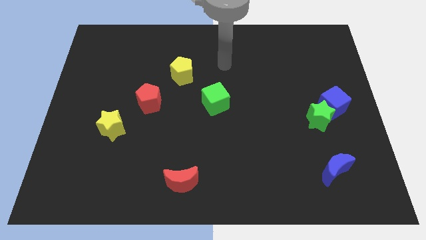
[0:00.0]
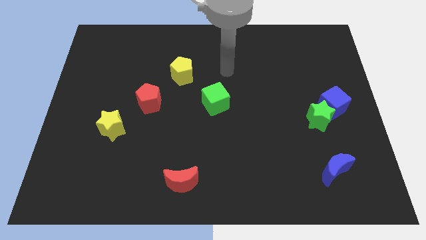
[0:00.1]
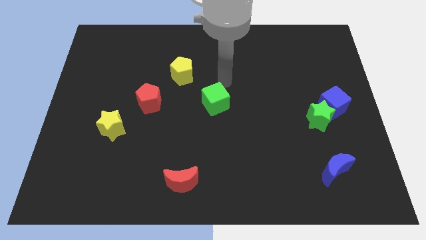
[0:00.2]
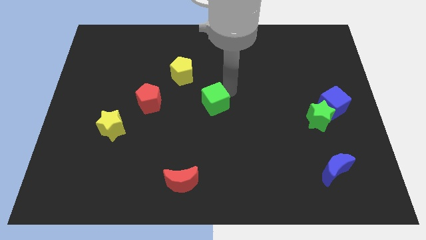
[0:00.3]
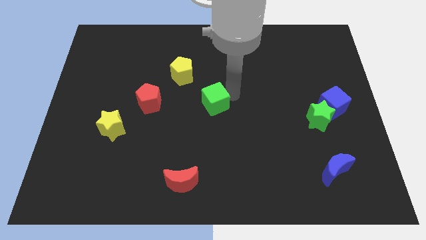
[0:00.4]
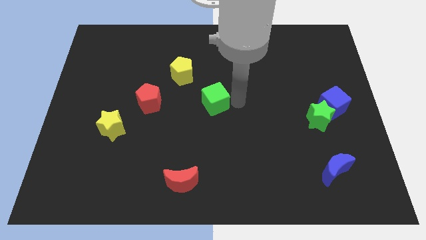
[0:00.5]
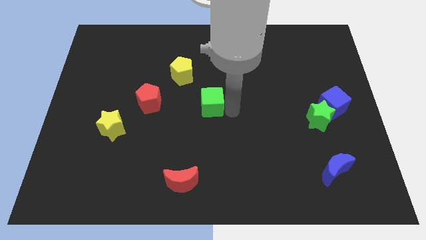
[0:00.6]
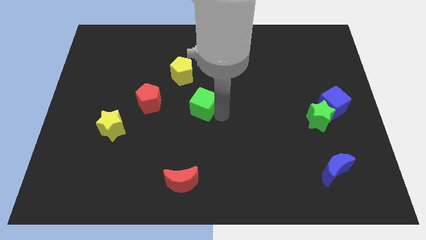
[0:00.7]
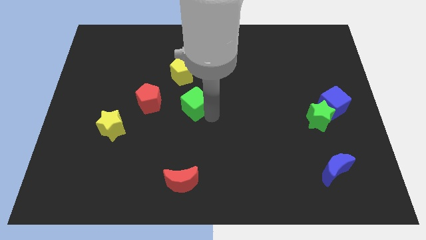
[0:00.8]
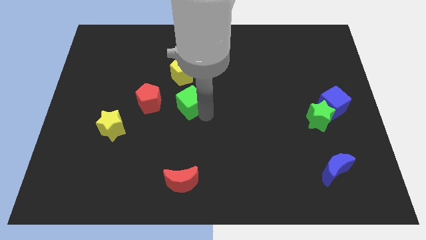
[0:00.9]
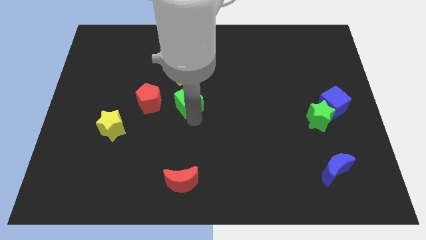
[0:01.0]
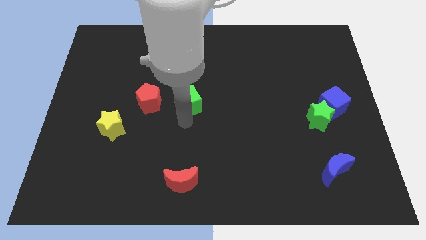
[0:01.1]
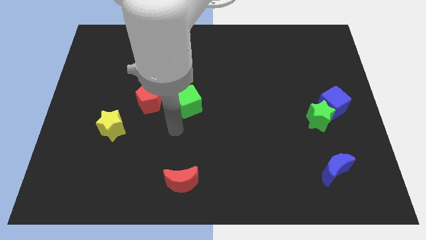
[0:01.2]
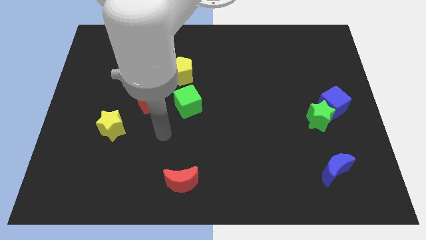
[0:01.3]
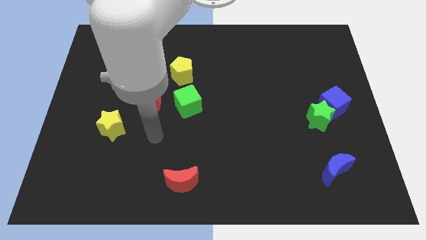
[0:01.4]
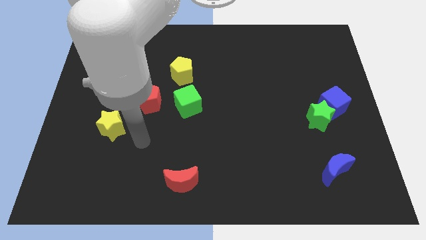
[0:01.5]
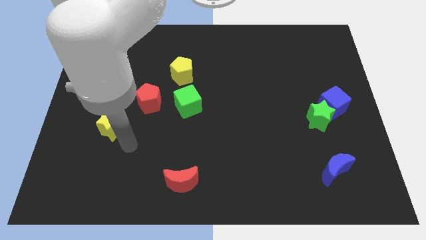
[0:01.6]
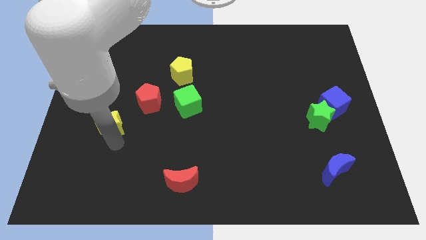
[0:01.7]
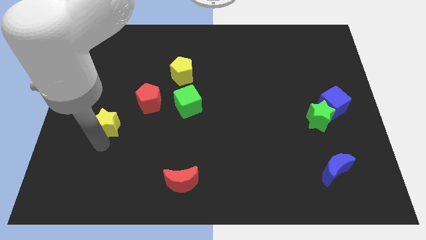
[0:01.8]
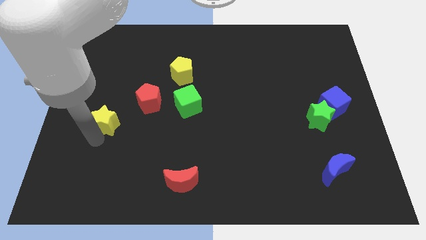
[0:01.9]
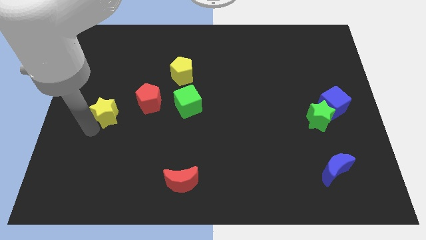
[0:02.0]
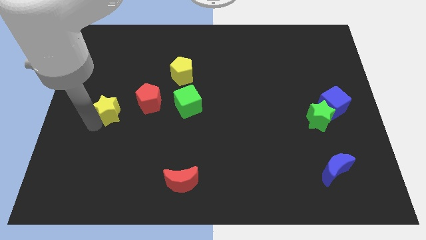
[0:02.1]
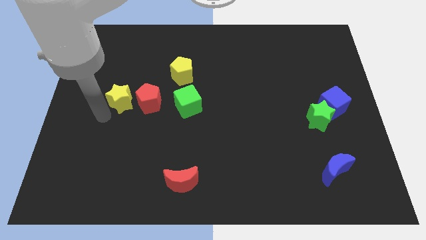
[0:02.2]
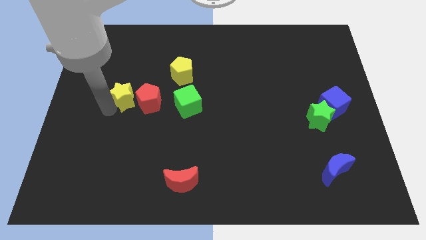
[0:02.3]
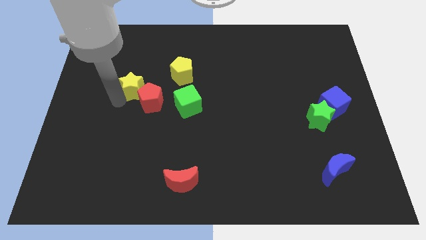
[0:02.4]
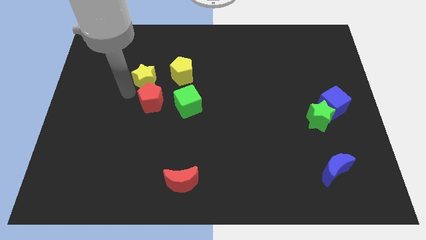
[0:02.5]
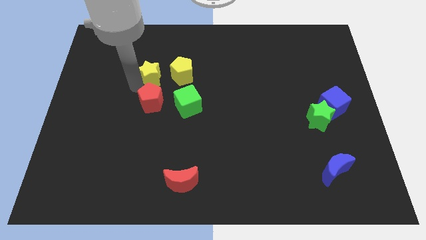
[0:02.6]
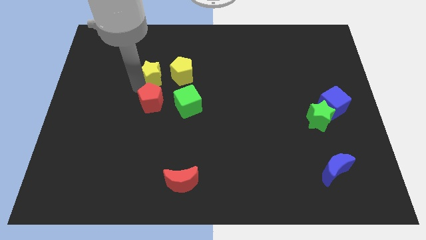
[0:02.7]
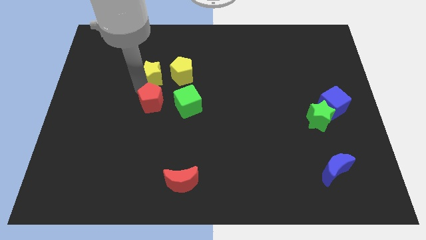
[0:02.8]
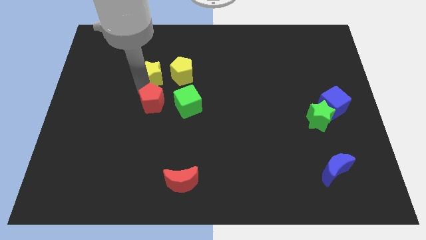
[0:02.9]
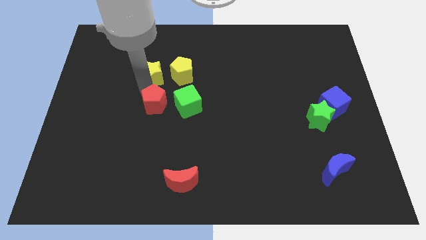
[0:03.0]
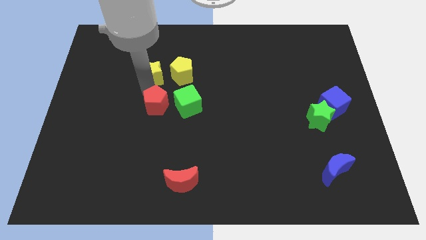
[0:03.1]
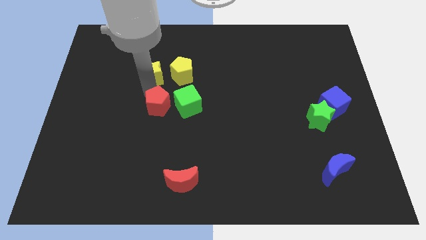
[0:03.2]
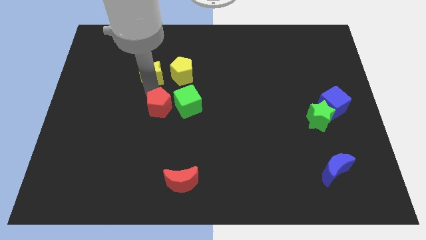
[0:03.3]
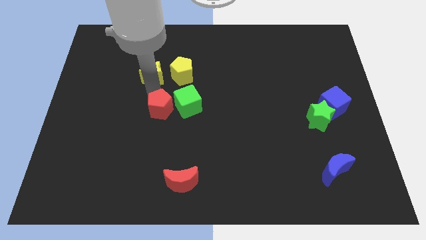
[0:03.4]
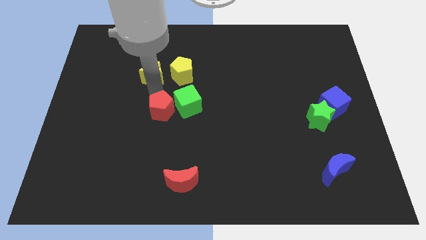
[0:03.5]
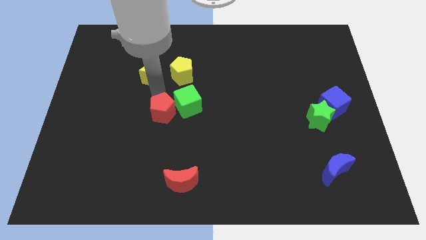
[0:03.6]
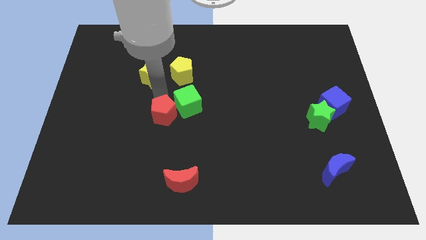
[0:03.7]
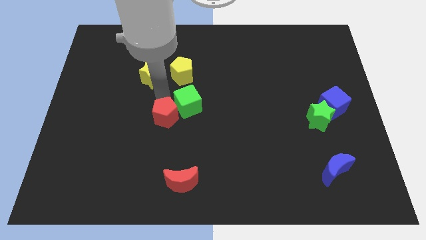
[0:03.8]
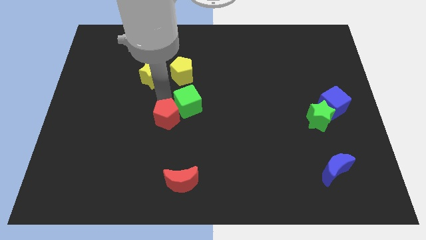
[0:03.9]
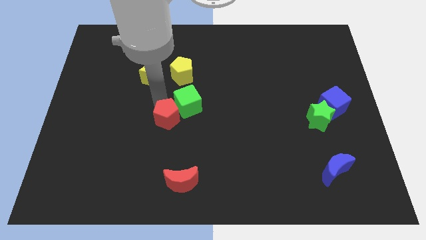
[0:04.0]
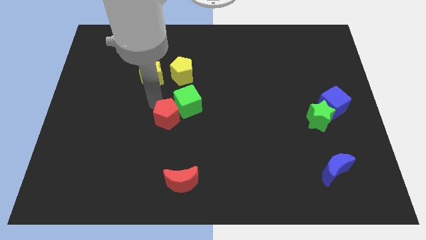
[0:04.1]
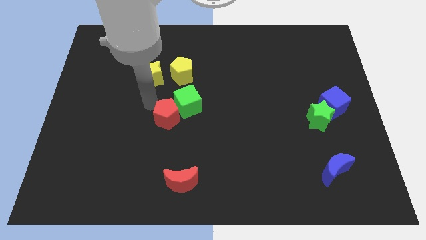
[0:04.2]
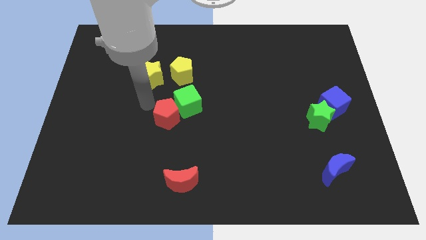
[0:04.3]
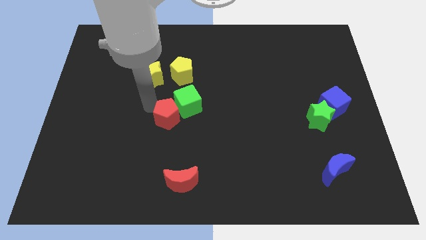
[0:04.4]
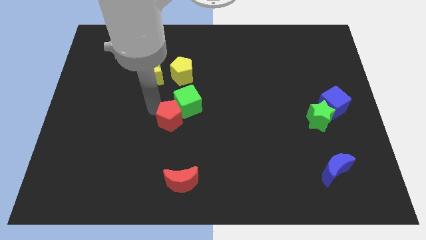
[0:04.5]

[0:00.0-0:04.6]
push the red pentagon down and then to the right a little bit

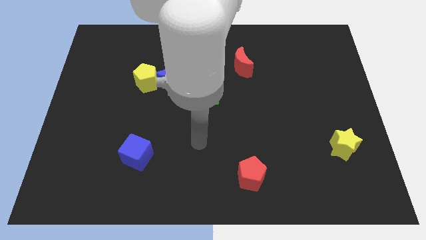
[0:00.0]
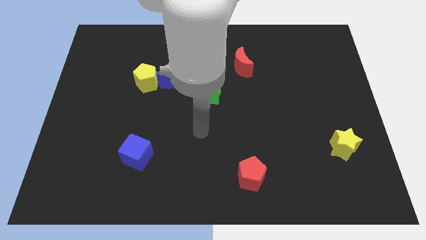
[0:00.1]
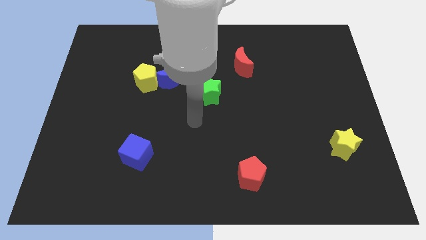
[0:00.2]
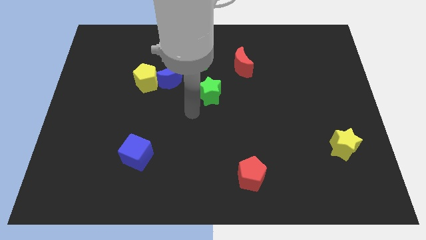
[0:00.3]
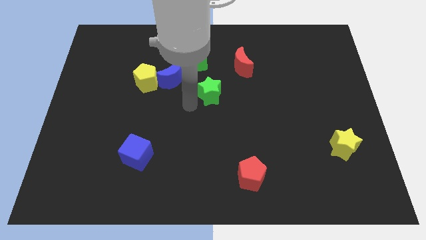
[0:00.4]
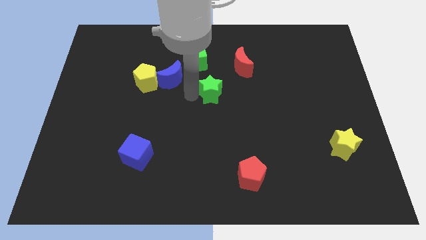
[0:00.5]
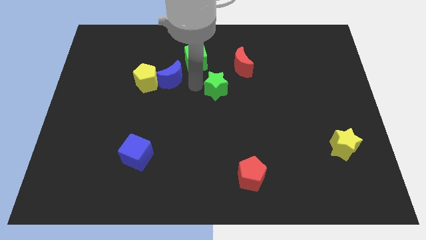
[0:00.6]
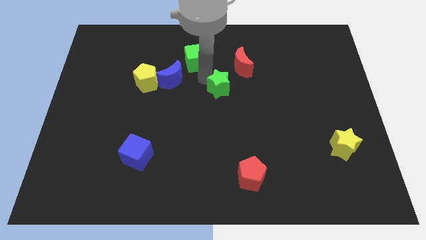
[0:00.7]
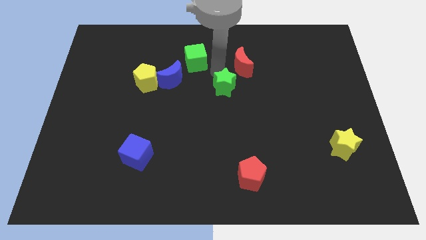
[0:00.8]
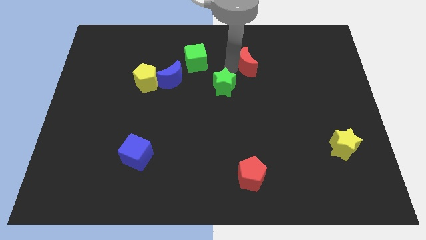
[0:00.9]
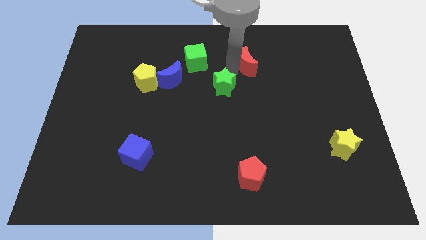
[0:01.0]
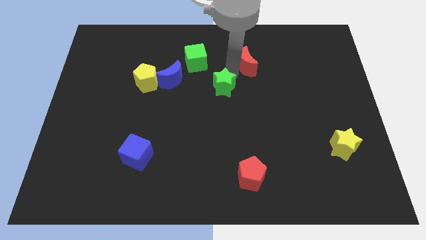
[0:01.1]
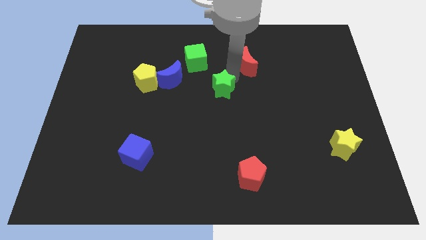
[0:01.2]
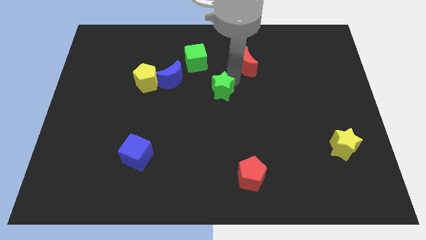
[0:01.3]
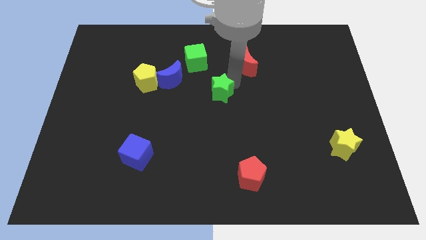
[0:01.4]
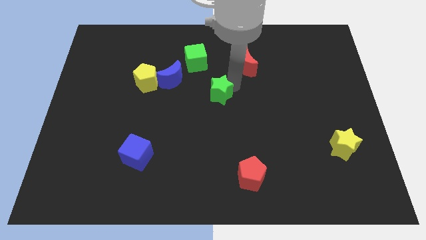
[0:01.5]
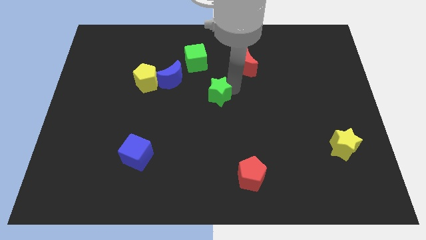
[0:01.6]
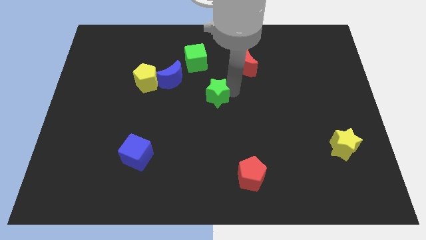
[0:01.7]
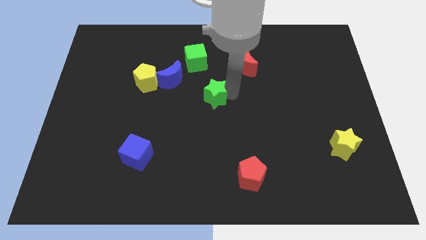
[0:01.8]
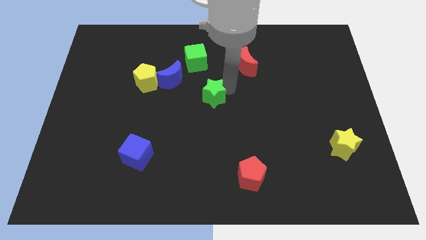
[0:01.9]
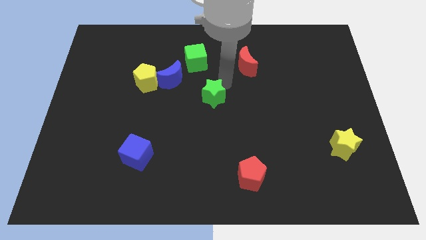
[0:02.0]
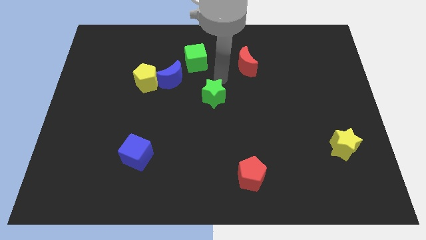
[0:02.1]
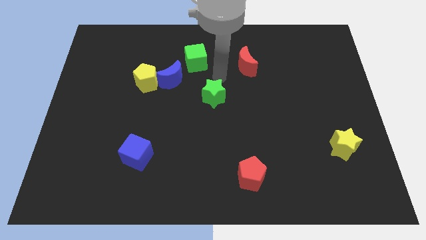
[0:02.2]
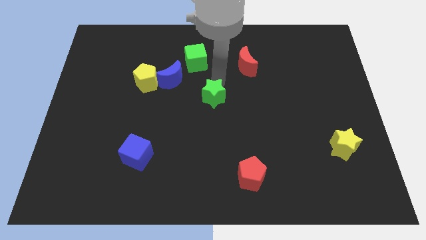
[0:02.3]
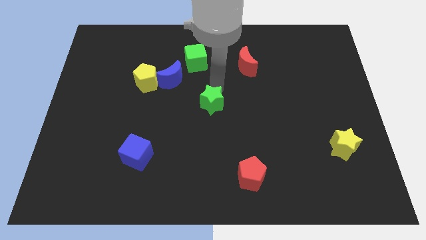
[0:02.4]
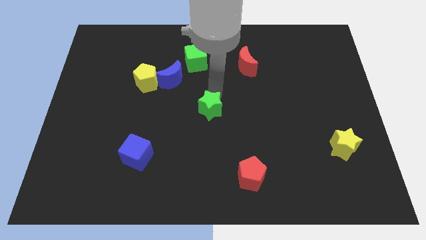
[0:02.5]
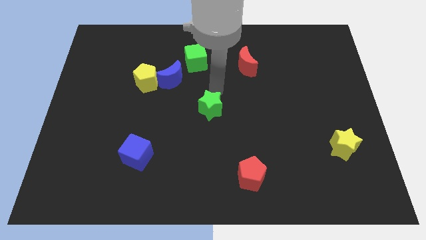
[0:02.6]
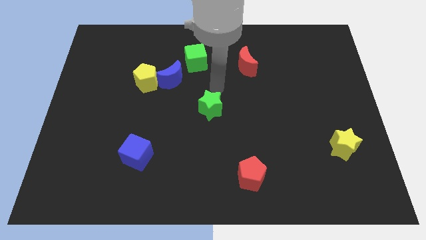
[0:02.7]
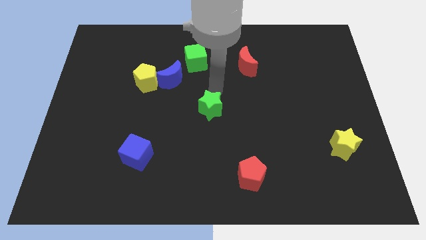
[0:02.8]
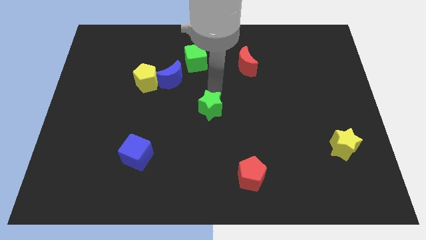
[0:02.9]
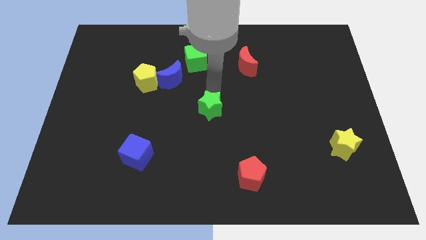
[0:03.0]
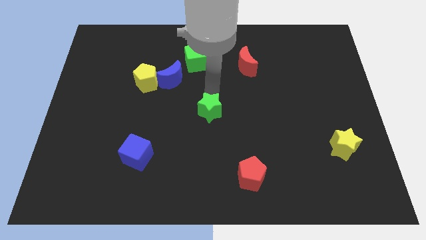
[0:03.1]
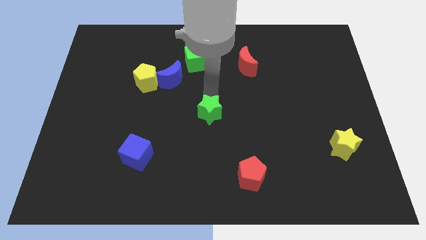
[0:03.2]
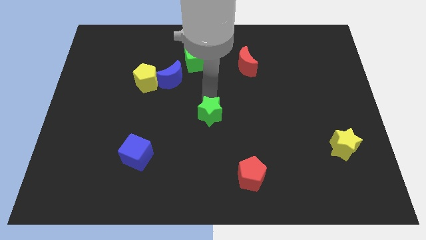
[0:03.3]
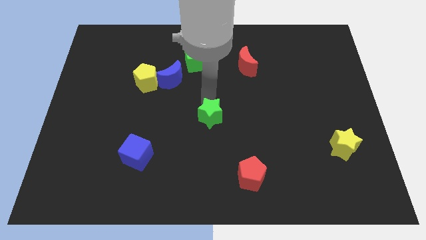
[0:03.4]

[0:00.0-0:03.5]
slightly move the green star downwards

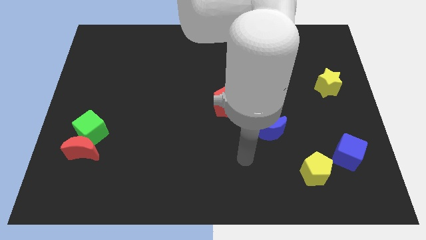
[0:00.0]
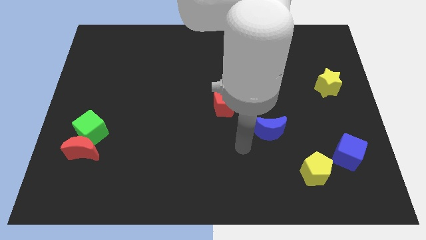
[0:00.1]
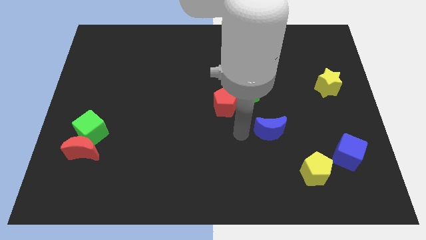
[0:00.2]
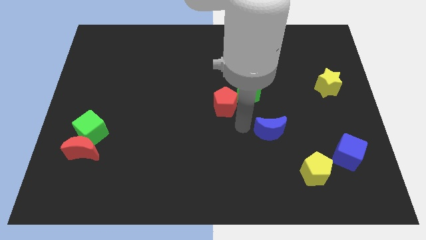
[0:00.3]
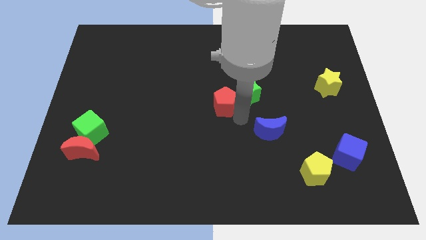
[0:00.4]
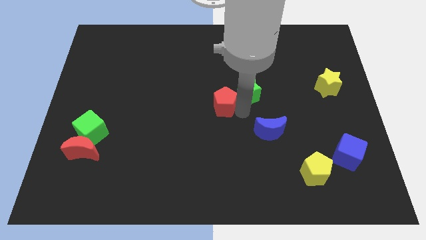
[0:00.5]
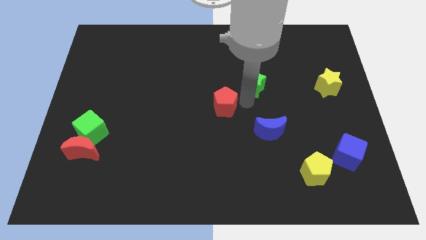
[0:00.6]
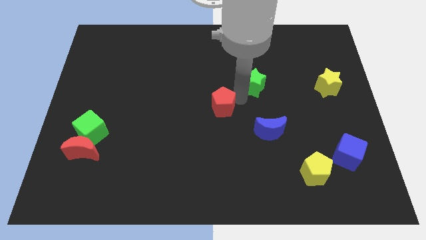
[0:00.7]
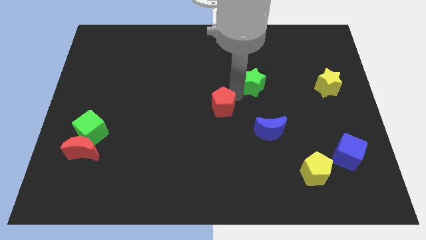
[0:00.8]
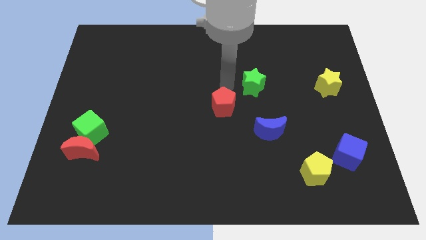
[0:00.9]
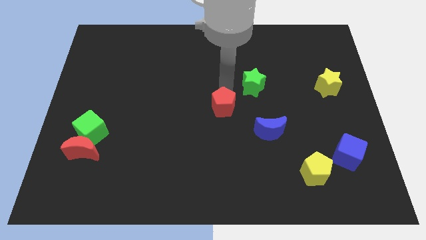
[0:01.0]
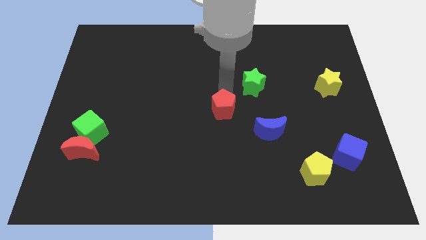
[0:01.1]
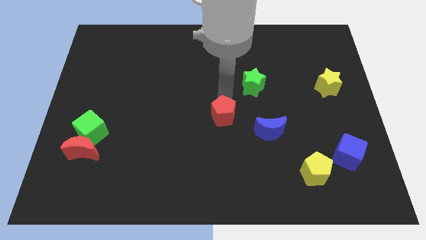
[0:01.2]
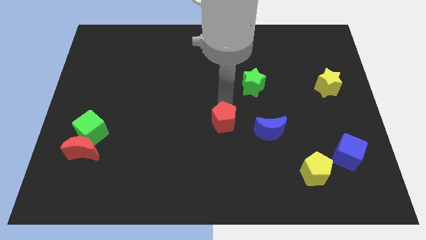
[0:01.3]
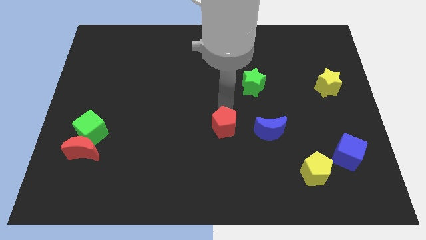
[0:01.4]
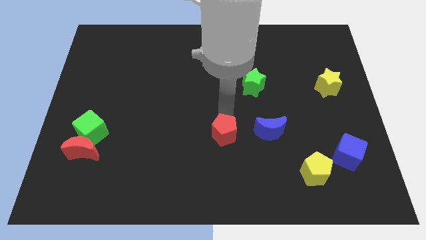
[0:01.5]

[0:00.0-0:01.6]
move the red pentagon downwards a little bit
